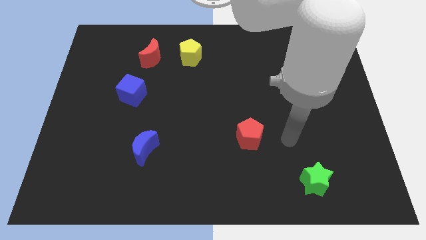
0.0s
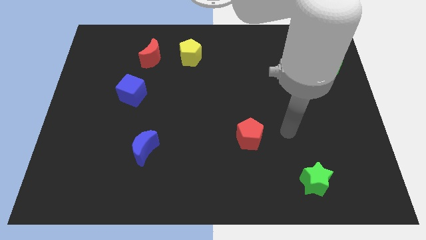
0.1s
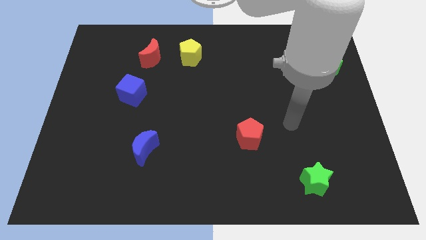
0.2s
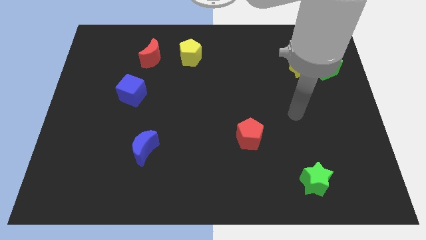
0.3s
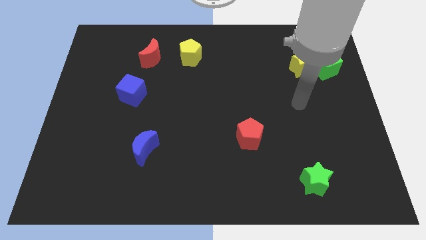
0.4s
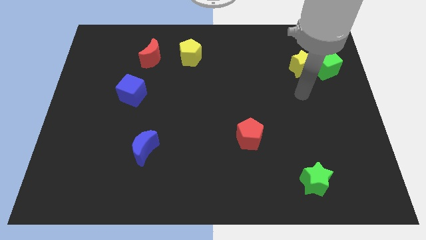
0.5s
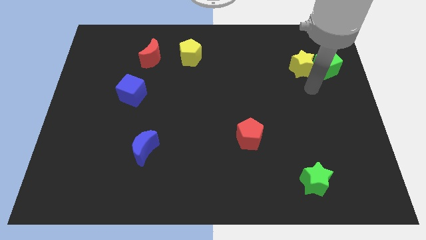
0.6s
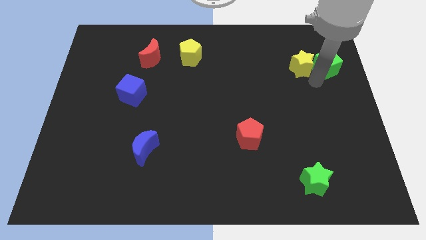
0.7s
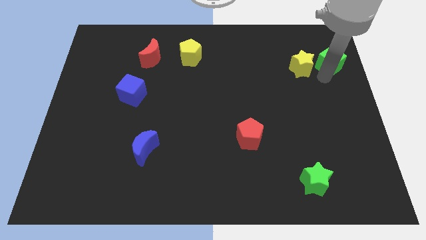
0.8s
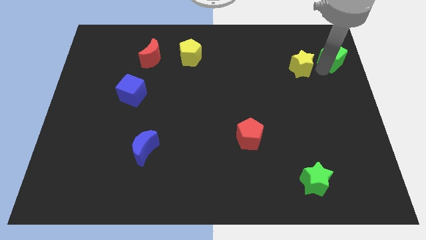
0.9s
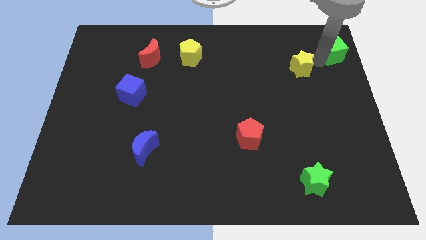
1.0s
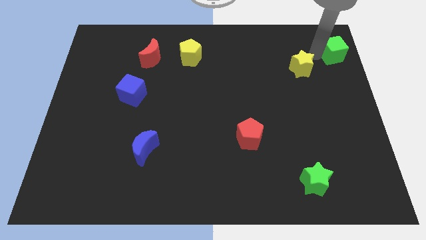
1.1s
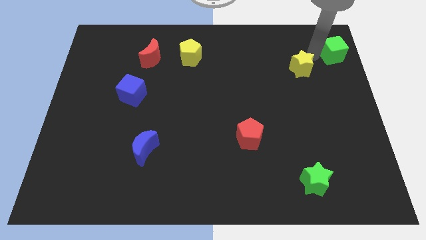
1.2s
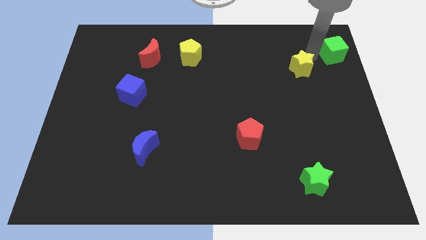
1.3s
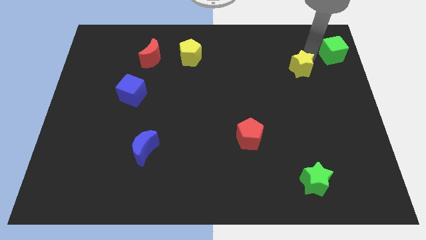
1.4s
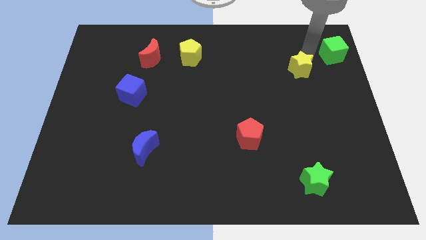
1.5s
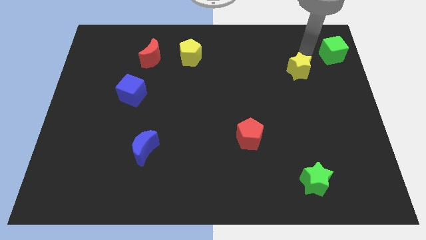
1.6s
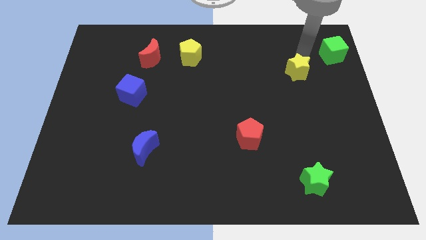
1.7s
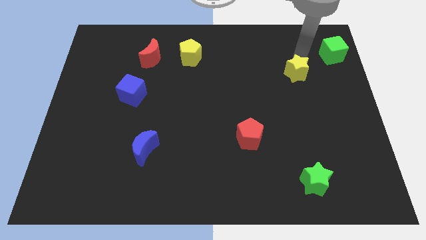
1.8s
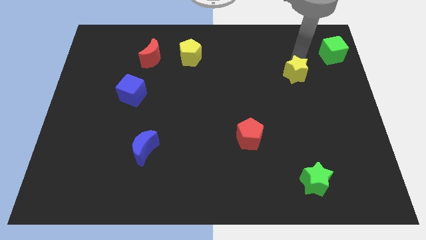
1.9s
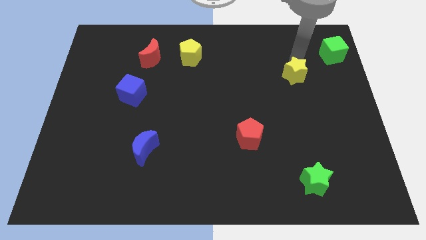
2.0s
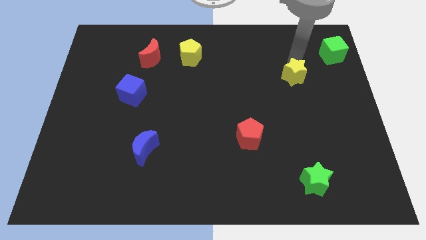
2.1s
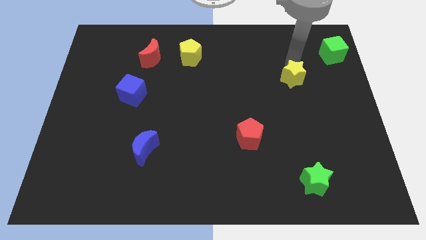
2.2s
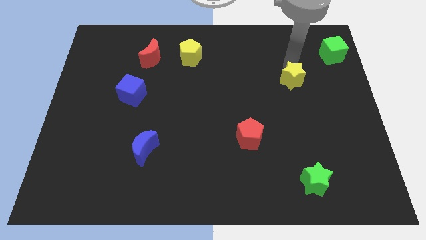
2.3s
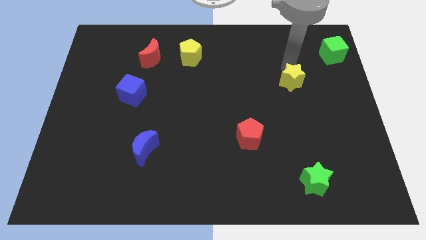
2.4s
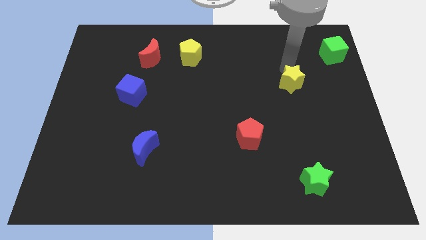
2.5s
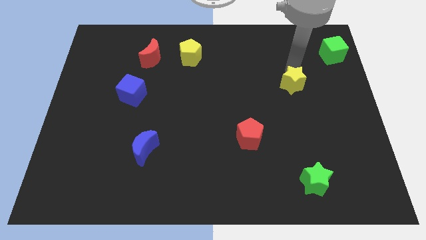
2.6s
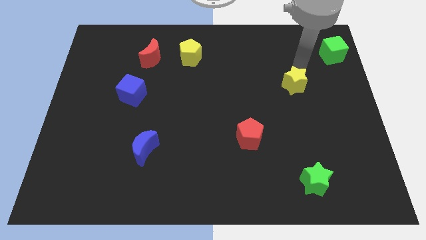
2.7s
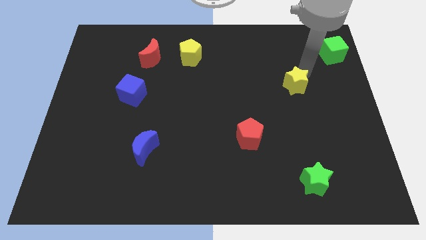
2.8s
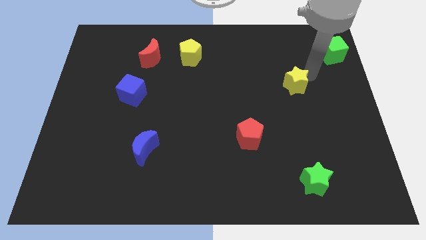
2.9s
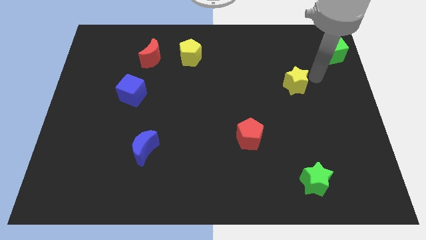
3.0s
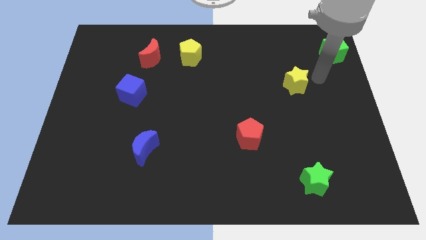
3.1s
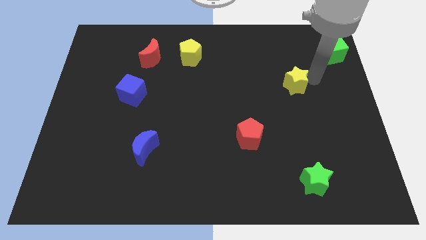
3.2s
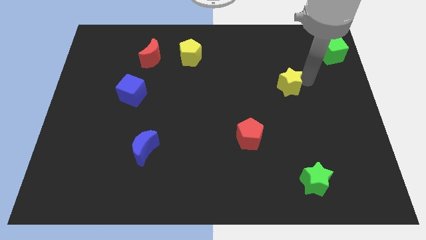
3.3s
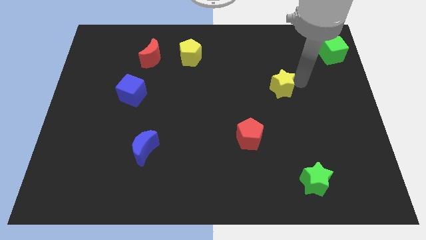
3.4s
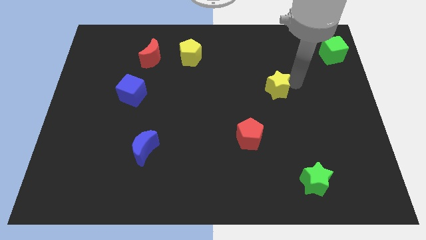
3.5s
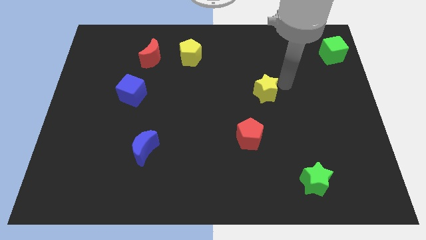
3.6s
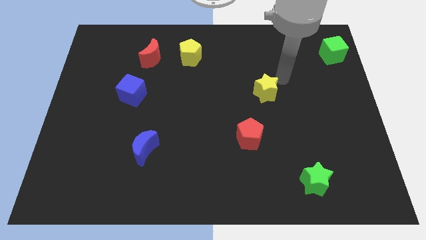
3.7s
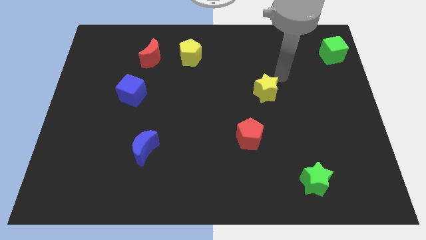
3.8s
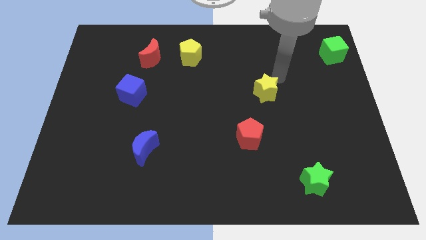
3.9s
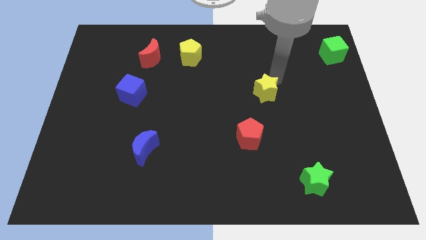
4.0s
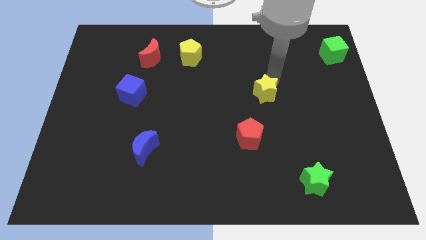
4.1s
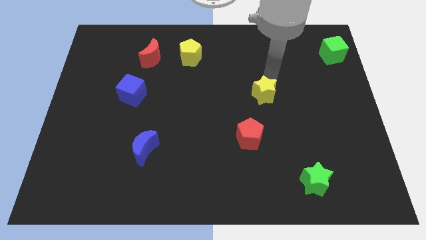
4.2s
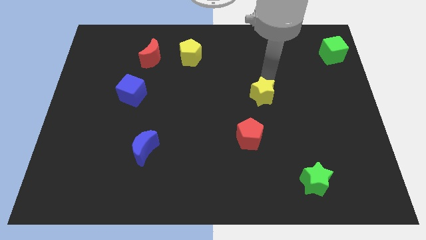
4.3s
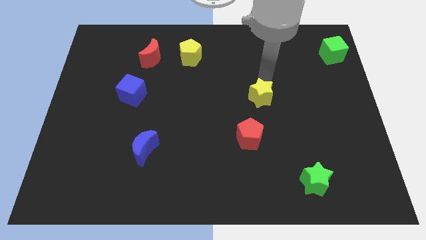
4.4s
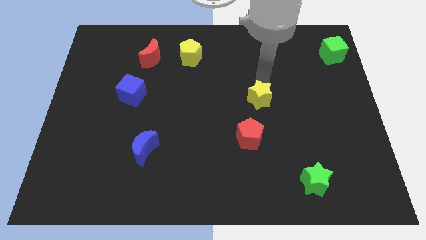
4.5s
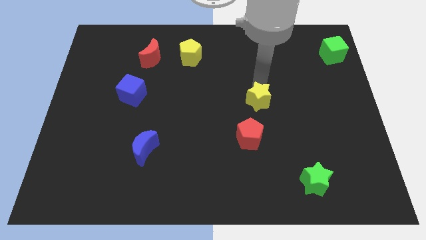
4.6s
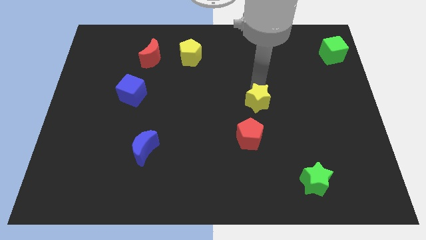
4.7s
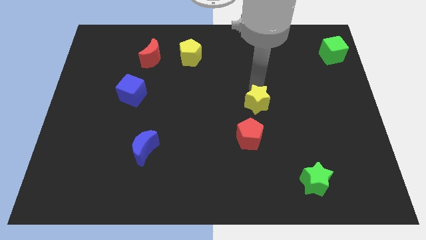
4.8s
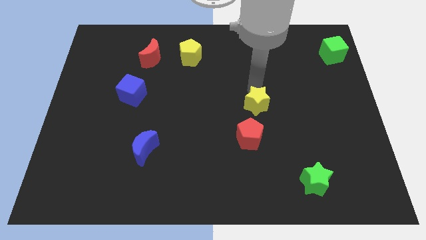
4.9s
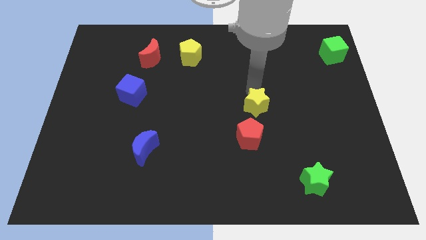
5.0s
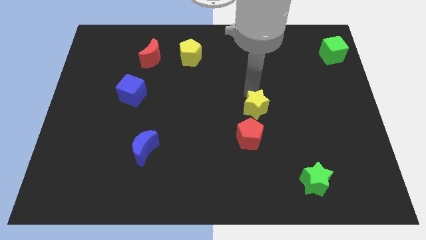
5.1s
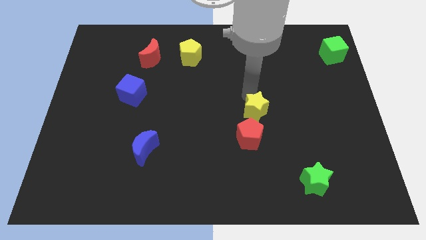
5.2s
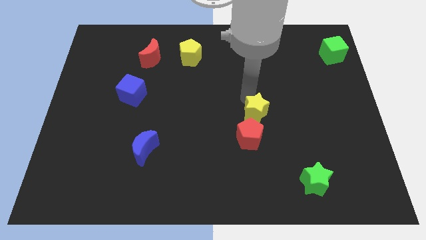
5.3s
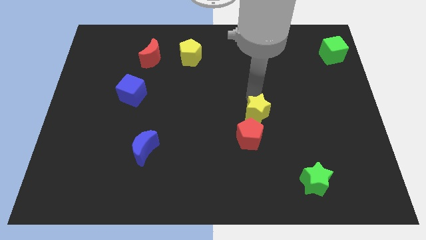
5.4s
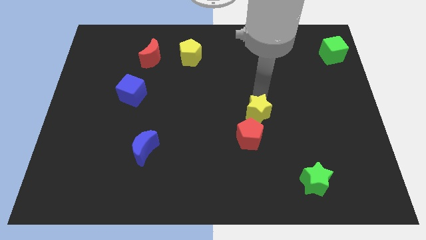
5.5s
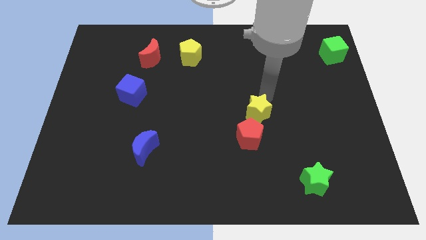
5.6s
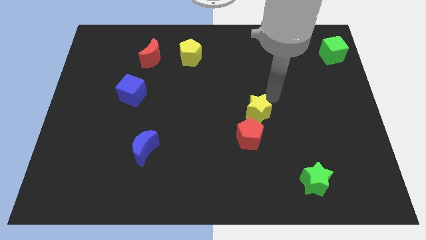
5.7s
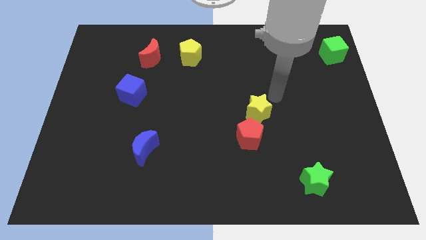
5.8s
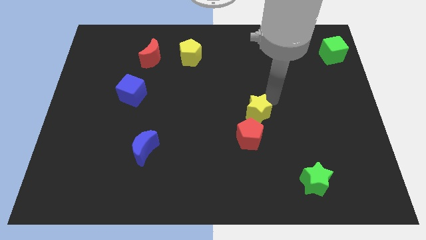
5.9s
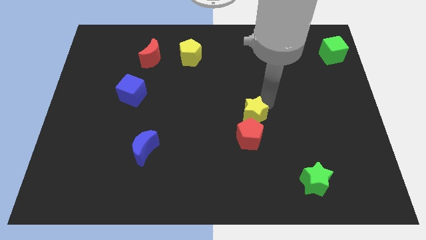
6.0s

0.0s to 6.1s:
move the yellow star down and to the left diagonally

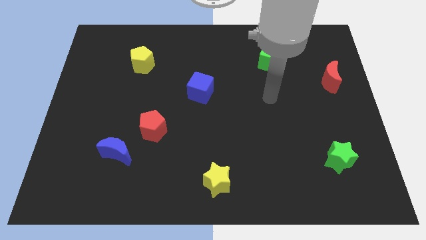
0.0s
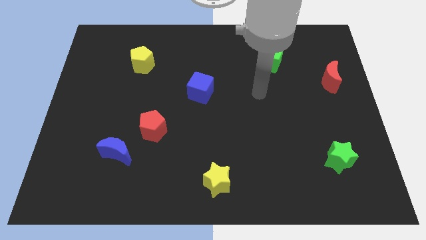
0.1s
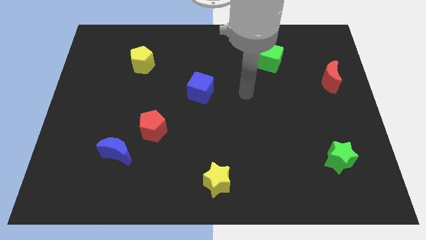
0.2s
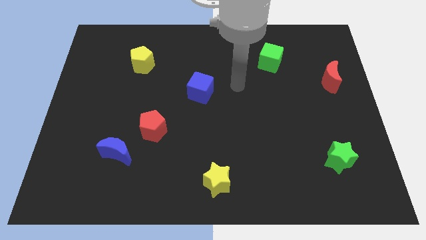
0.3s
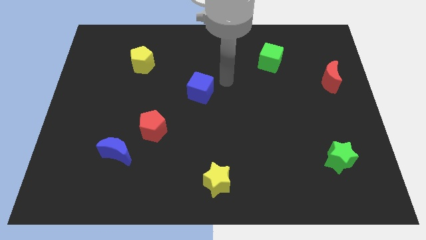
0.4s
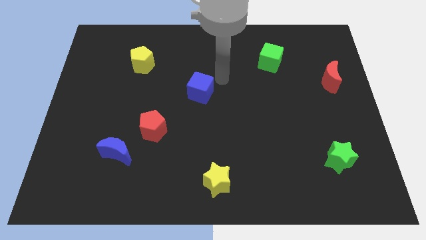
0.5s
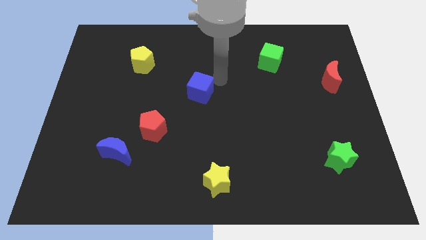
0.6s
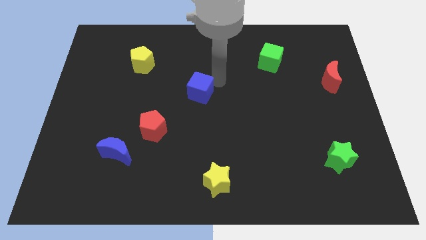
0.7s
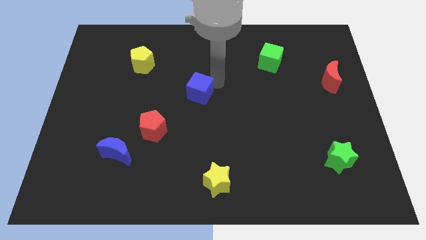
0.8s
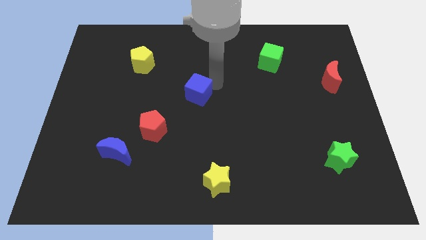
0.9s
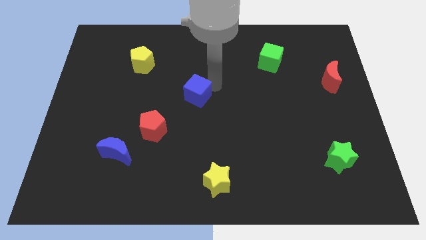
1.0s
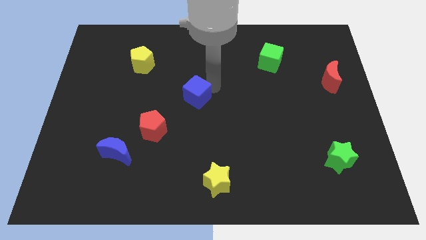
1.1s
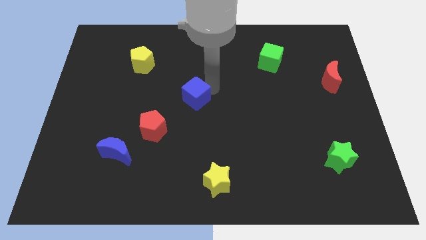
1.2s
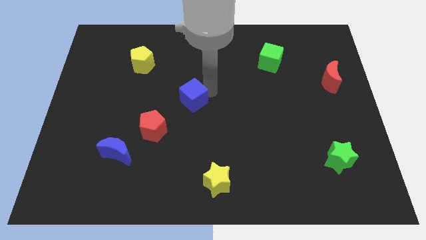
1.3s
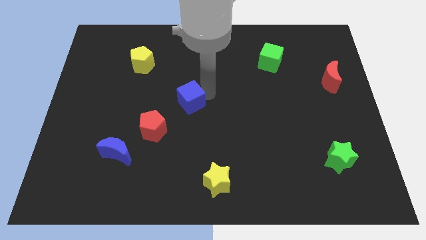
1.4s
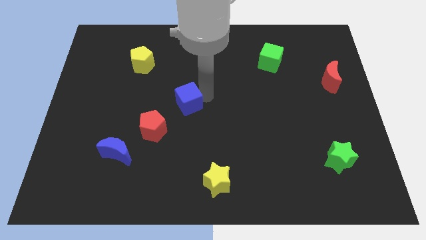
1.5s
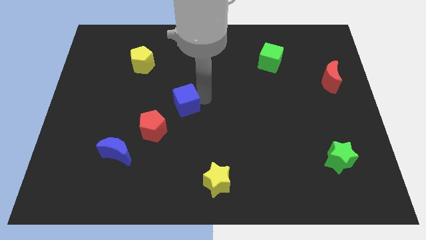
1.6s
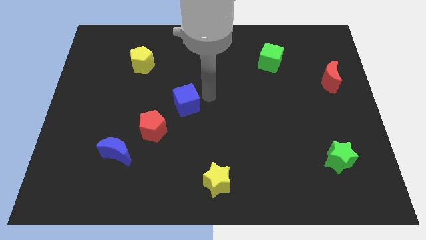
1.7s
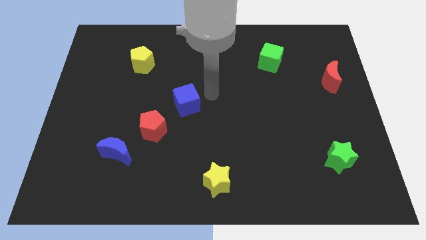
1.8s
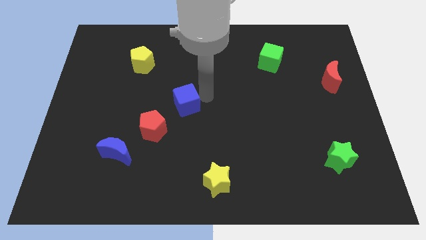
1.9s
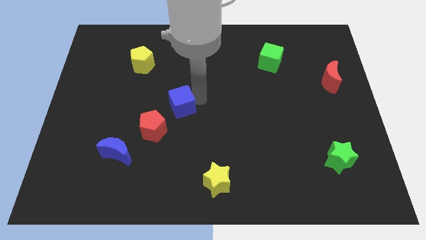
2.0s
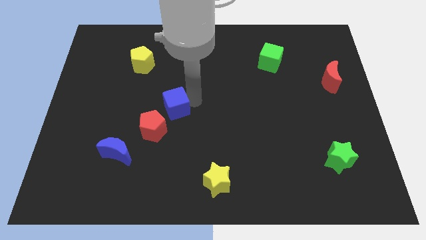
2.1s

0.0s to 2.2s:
slightly push the blue cube diagonally down and to the left
